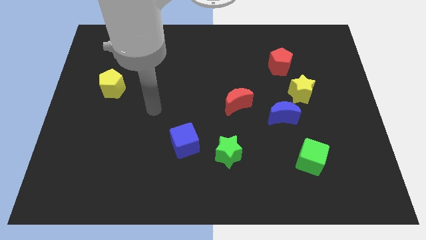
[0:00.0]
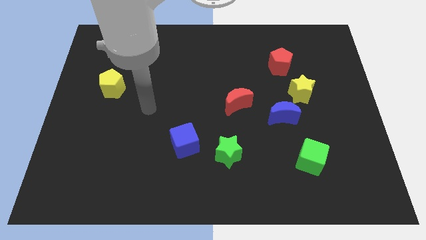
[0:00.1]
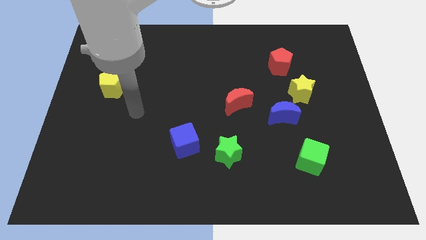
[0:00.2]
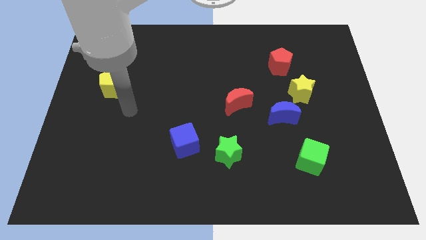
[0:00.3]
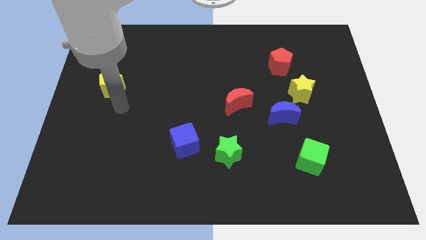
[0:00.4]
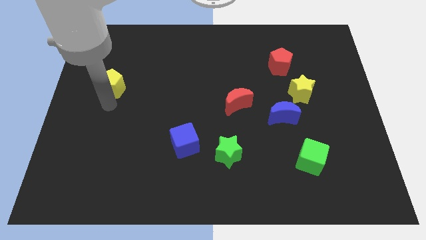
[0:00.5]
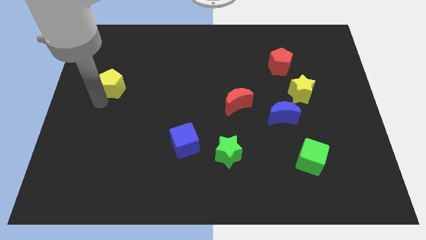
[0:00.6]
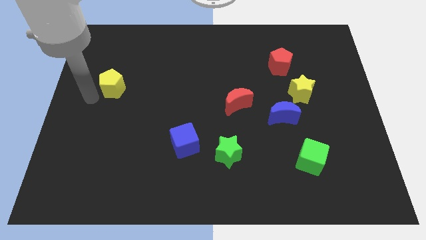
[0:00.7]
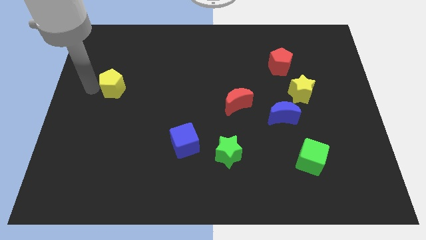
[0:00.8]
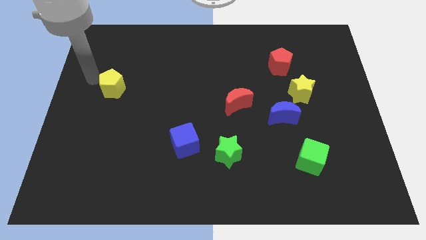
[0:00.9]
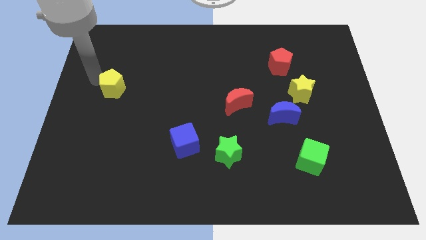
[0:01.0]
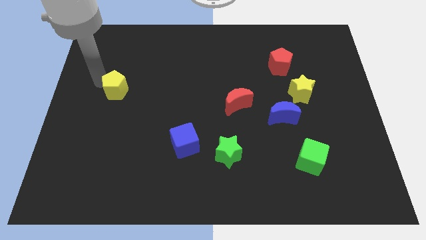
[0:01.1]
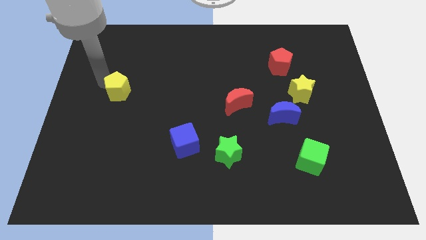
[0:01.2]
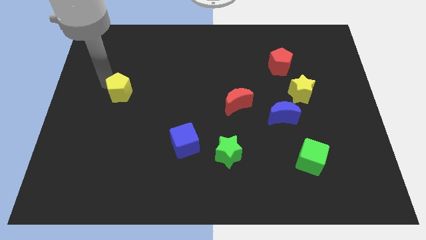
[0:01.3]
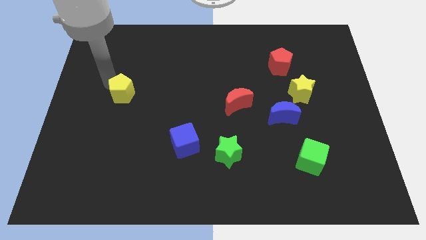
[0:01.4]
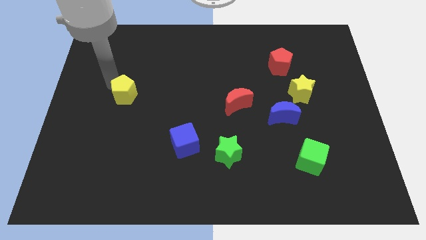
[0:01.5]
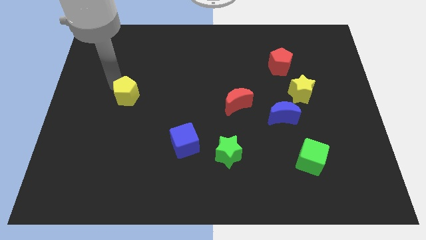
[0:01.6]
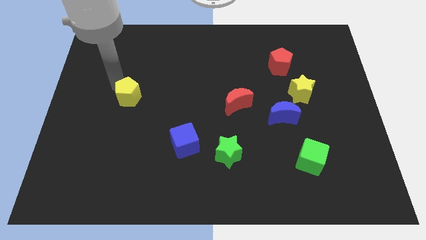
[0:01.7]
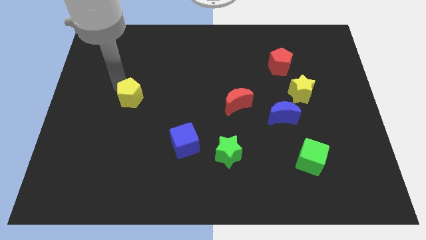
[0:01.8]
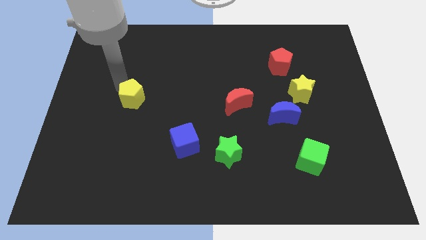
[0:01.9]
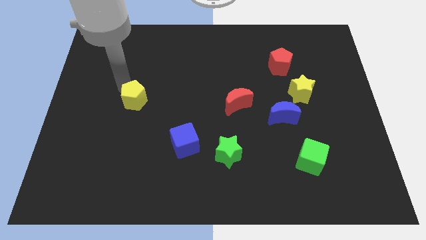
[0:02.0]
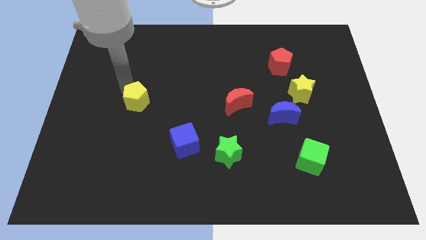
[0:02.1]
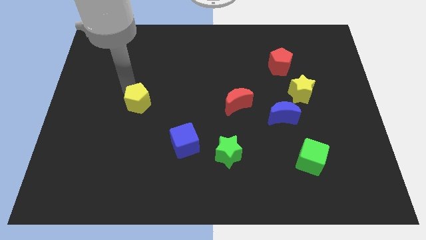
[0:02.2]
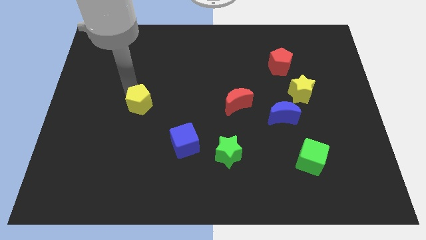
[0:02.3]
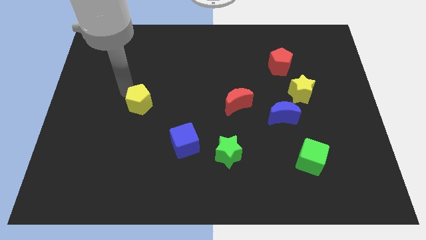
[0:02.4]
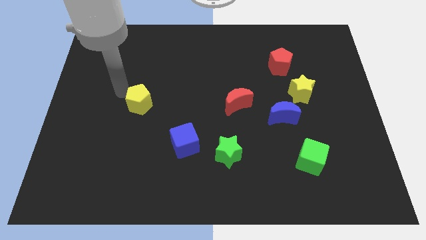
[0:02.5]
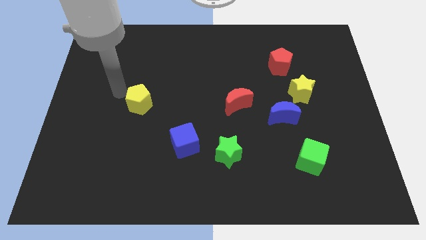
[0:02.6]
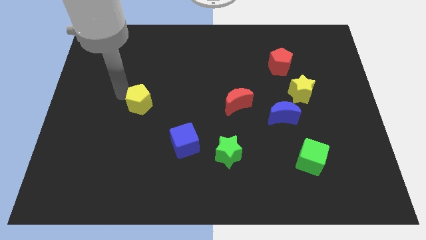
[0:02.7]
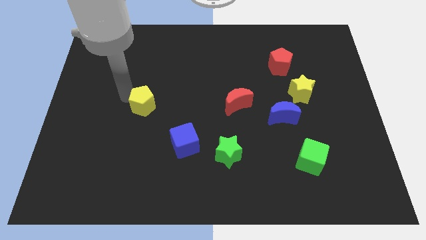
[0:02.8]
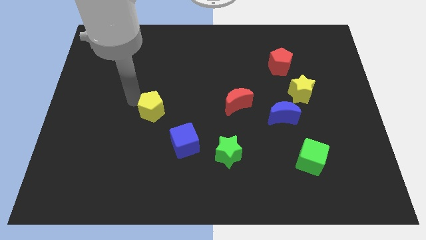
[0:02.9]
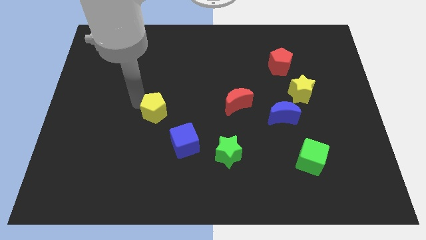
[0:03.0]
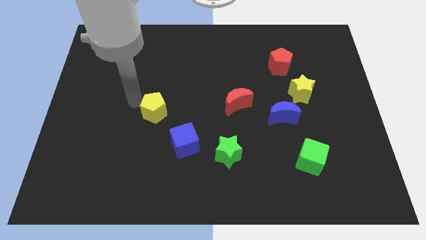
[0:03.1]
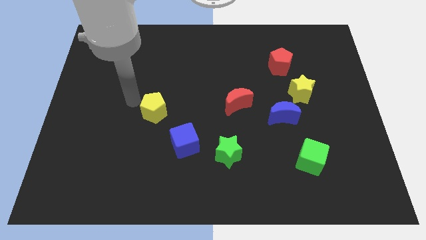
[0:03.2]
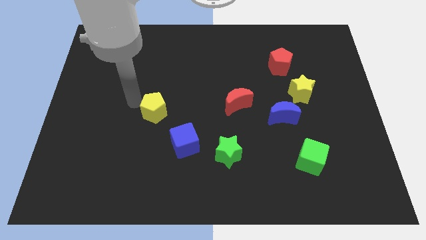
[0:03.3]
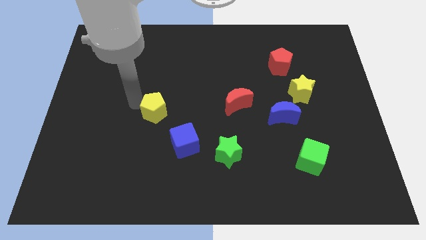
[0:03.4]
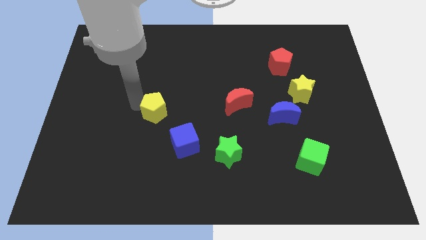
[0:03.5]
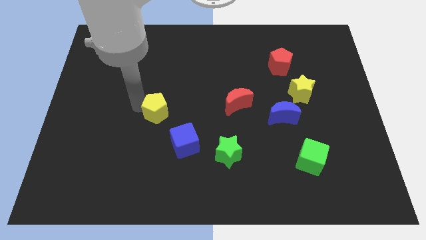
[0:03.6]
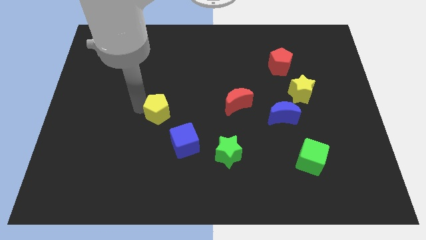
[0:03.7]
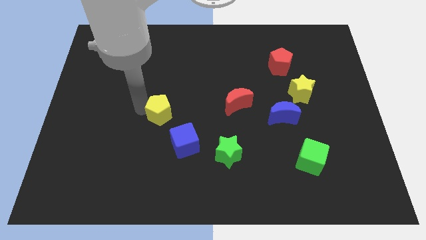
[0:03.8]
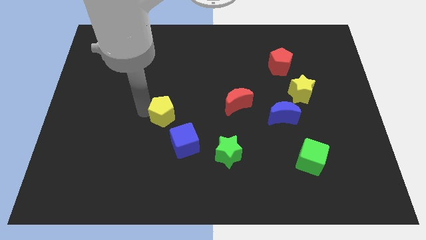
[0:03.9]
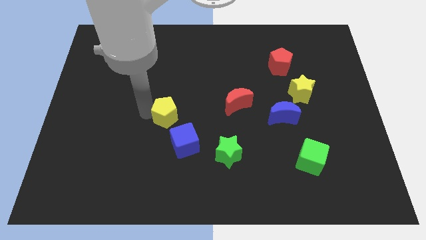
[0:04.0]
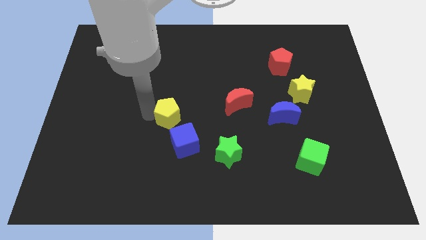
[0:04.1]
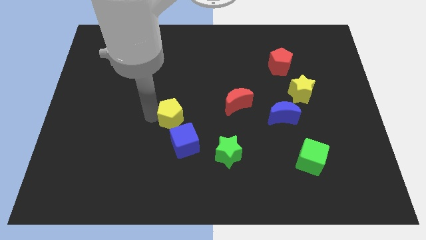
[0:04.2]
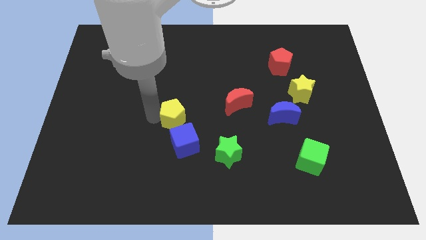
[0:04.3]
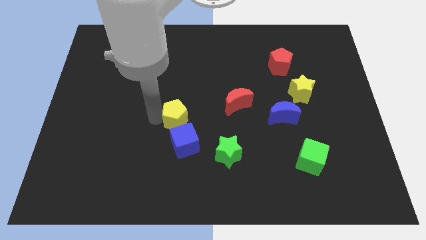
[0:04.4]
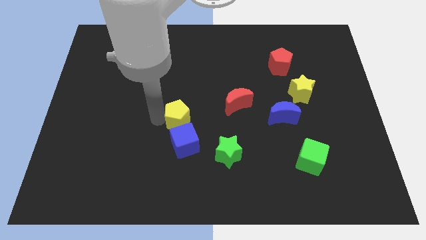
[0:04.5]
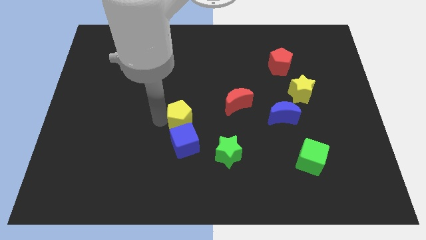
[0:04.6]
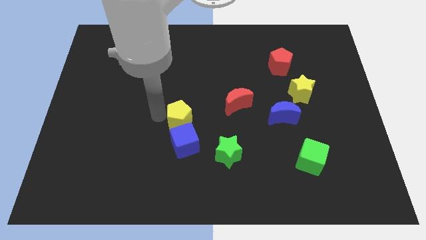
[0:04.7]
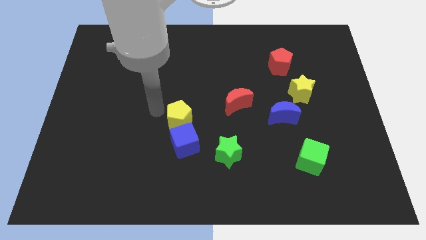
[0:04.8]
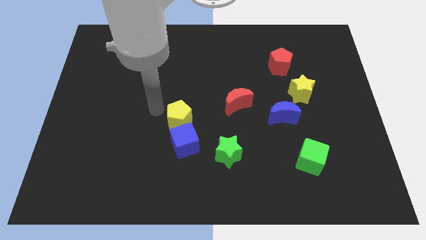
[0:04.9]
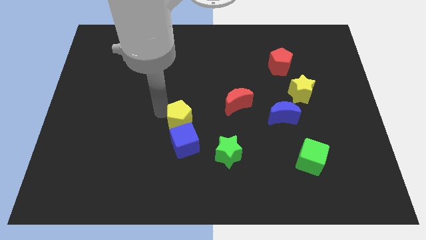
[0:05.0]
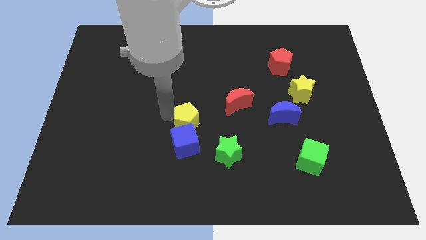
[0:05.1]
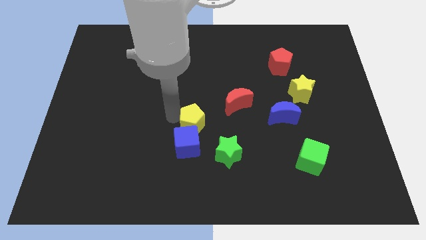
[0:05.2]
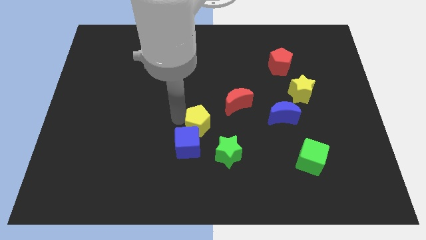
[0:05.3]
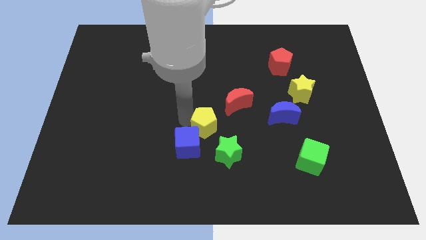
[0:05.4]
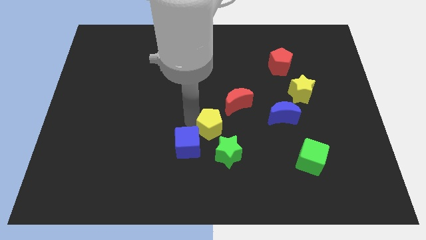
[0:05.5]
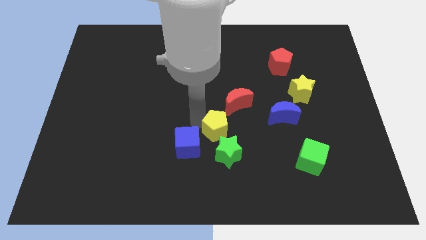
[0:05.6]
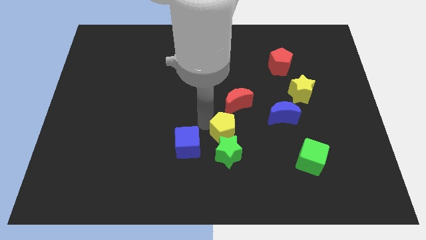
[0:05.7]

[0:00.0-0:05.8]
put the yellow pentagon next to the green star

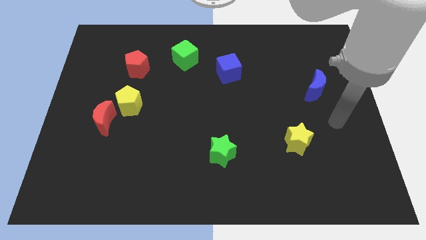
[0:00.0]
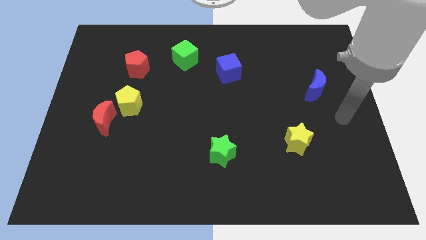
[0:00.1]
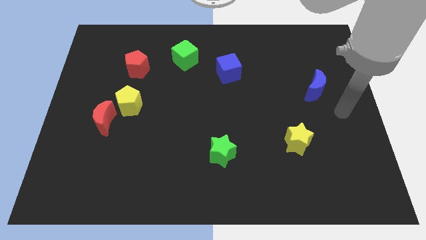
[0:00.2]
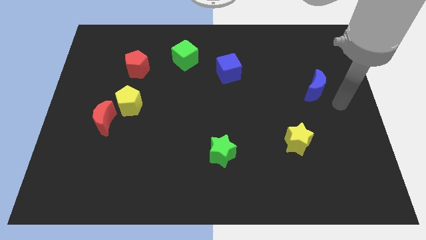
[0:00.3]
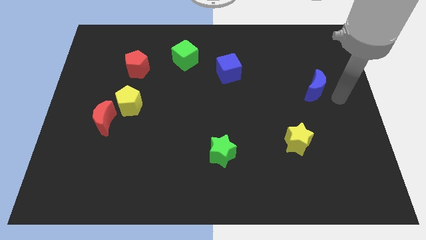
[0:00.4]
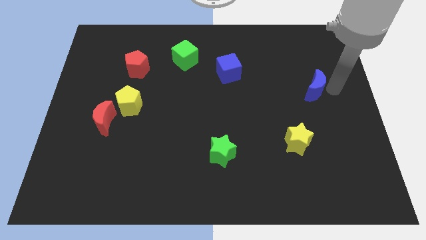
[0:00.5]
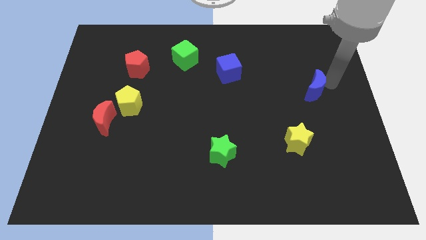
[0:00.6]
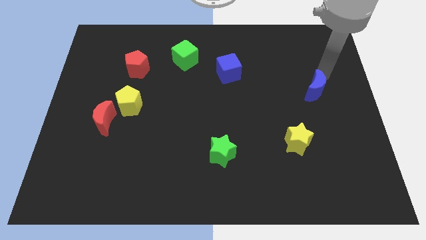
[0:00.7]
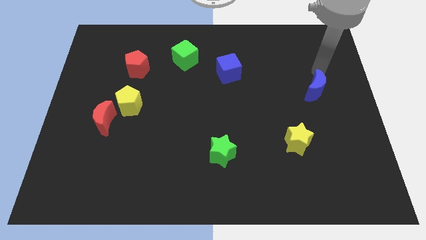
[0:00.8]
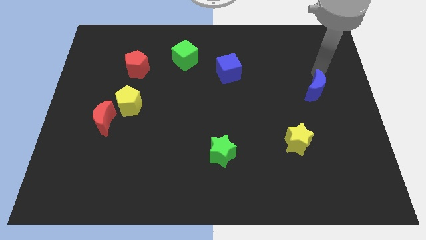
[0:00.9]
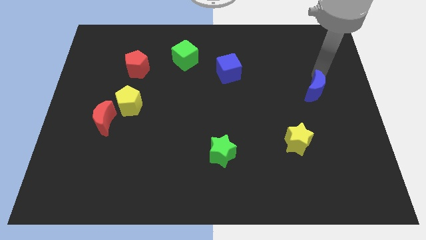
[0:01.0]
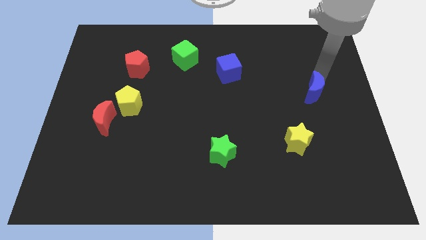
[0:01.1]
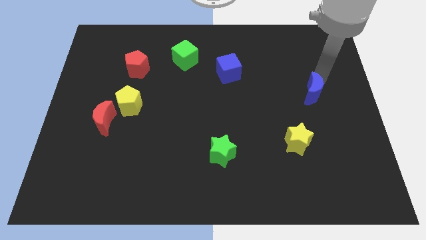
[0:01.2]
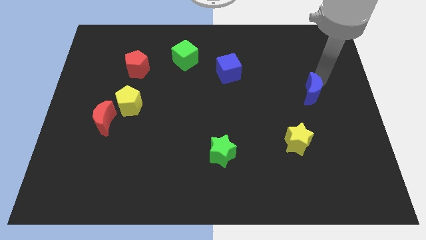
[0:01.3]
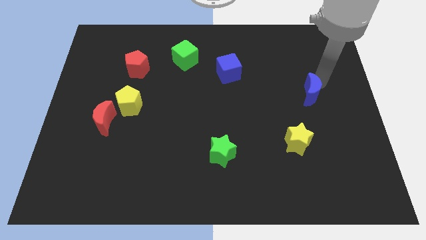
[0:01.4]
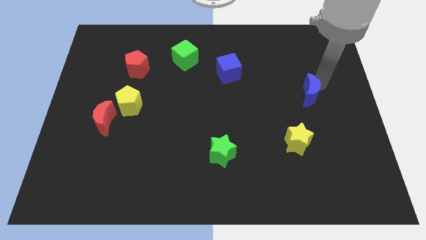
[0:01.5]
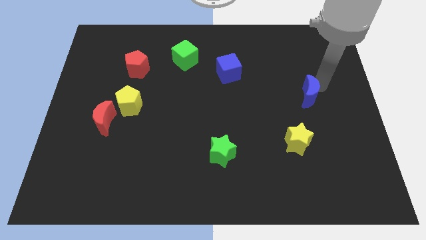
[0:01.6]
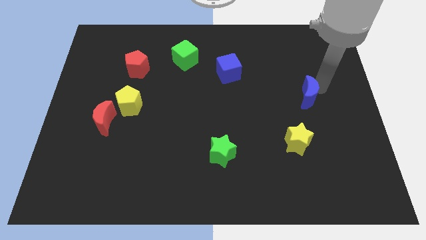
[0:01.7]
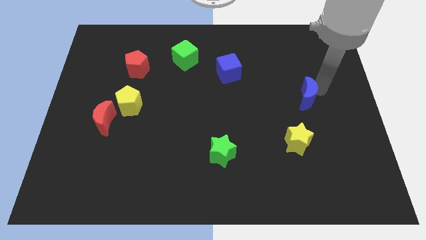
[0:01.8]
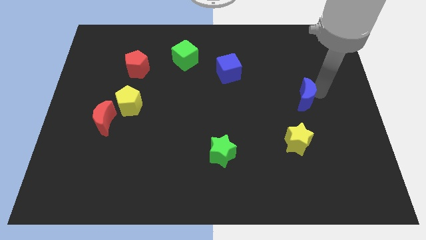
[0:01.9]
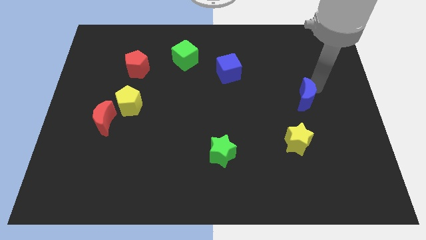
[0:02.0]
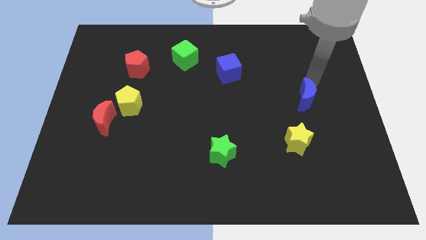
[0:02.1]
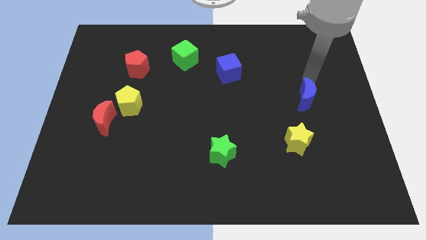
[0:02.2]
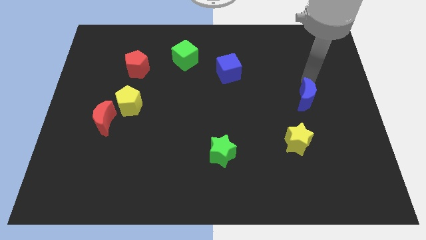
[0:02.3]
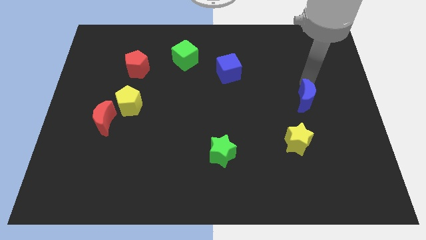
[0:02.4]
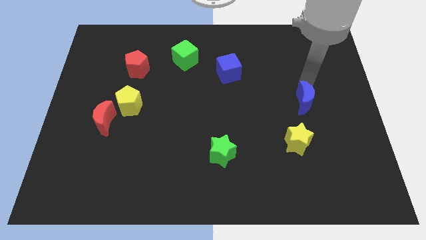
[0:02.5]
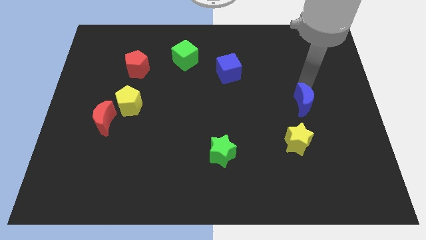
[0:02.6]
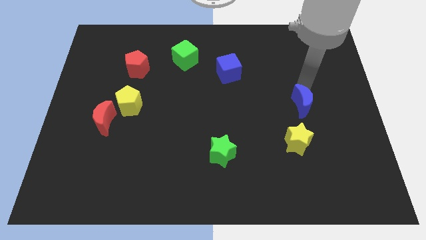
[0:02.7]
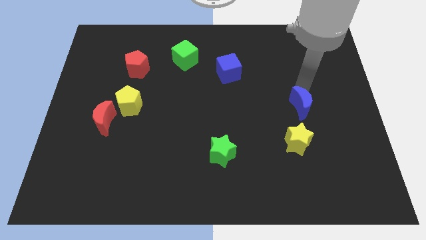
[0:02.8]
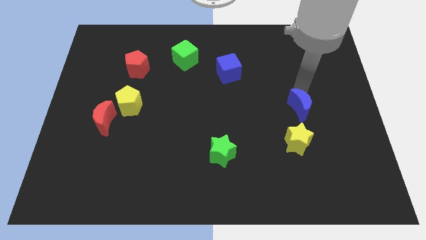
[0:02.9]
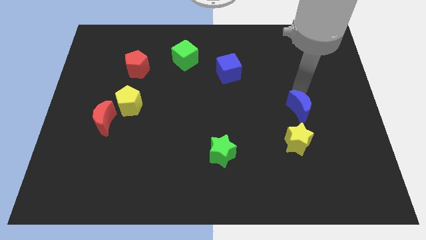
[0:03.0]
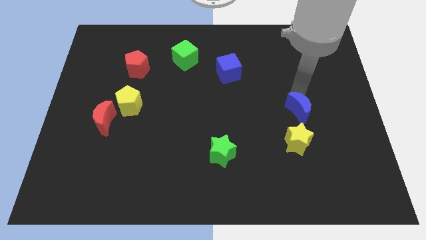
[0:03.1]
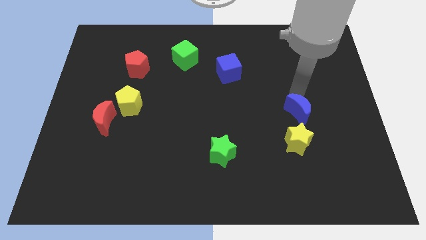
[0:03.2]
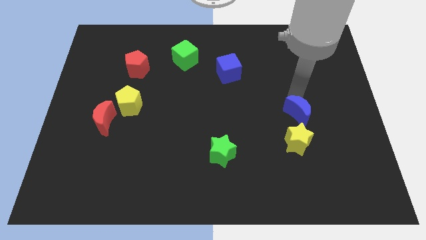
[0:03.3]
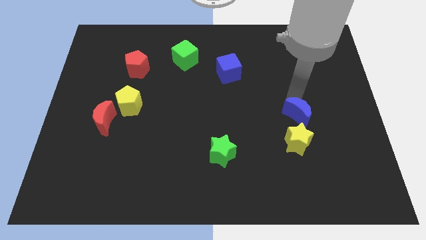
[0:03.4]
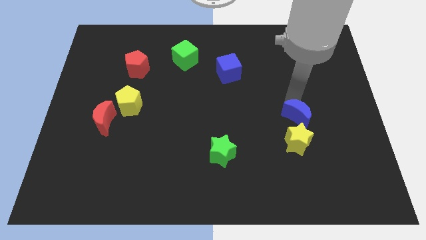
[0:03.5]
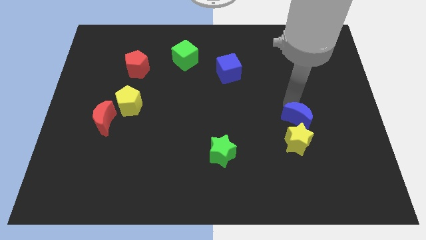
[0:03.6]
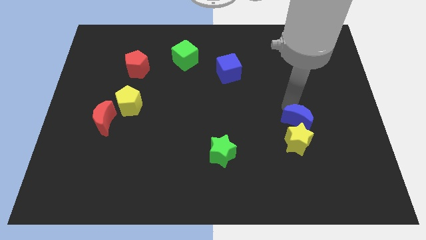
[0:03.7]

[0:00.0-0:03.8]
push the blue moon next to the yellow star
